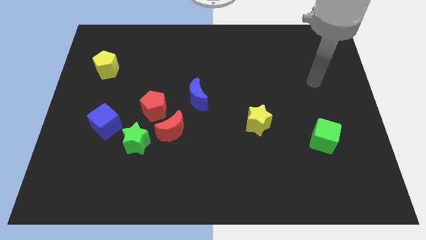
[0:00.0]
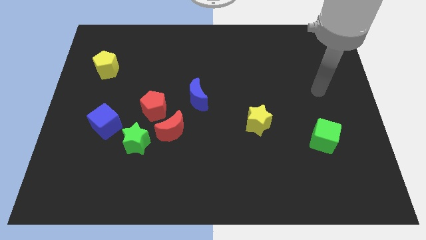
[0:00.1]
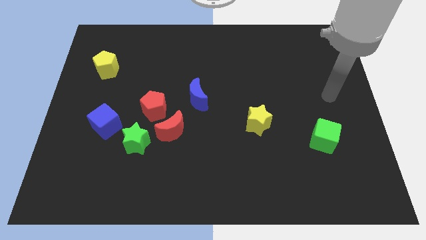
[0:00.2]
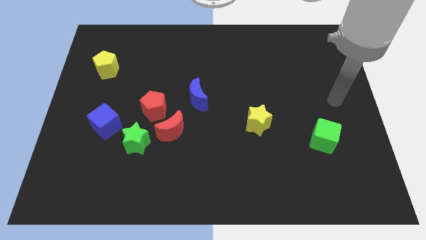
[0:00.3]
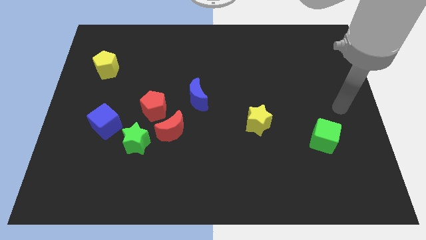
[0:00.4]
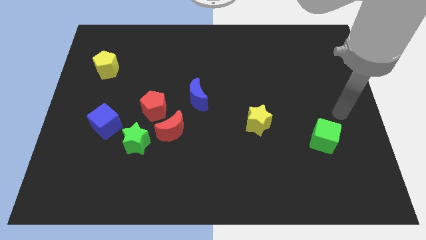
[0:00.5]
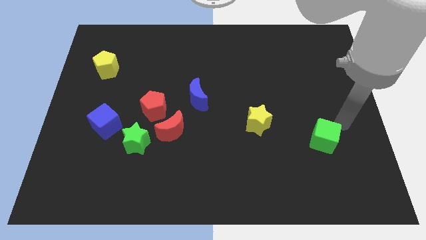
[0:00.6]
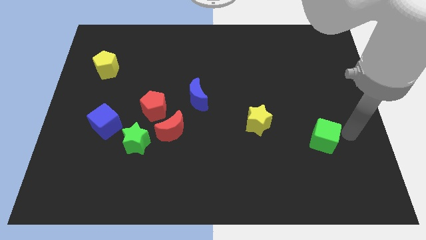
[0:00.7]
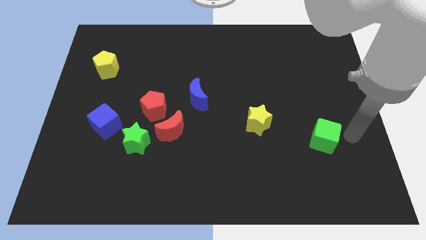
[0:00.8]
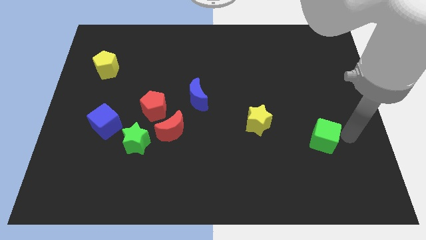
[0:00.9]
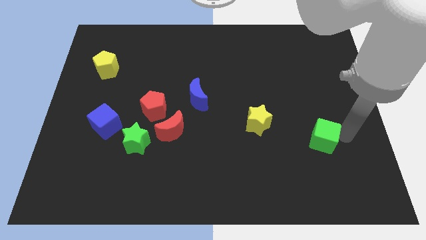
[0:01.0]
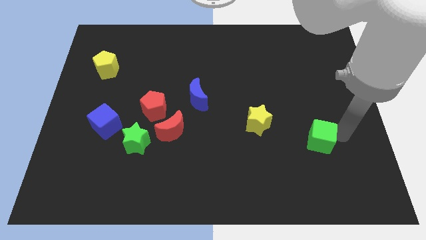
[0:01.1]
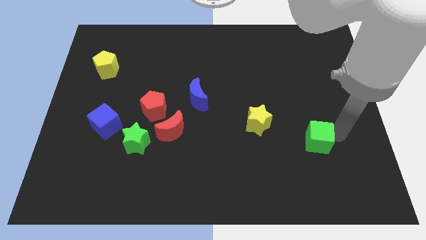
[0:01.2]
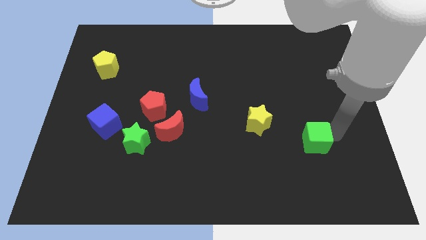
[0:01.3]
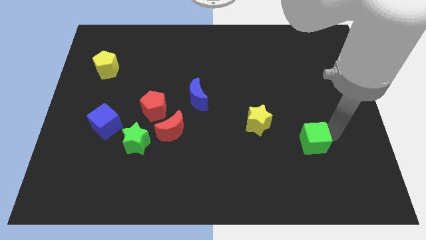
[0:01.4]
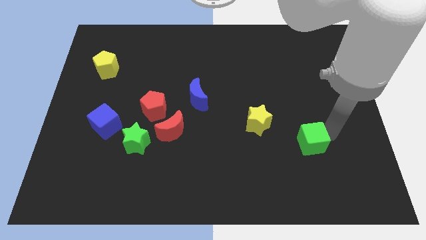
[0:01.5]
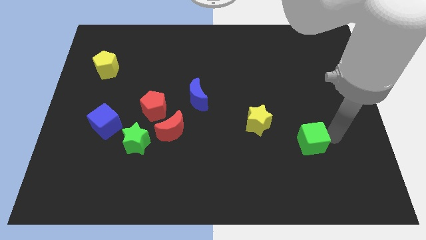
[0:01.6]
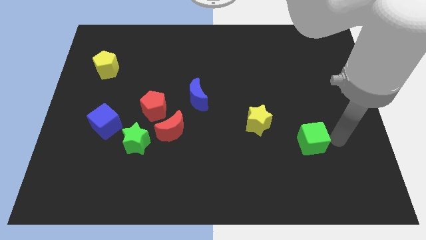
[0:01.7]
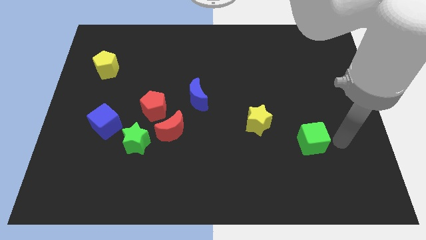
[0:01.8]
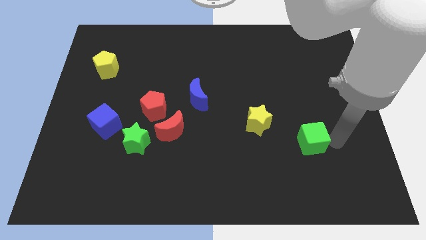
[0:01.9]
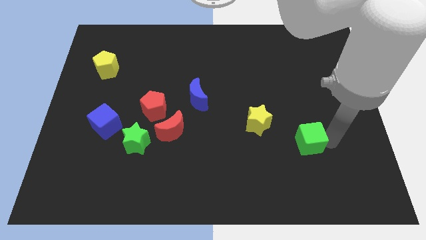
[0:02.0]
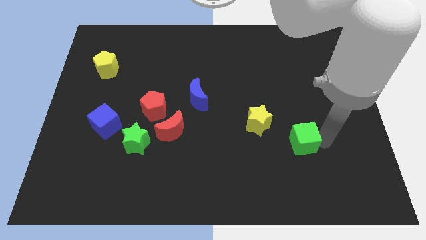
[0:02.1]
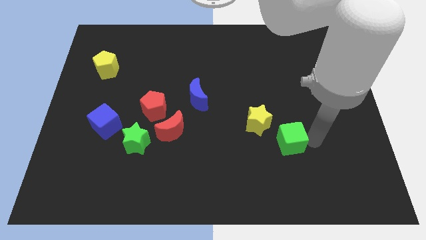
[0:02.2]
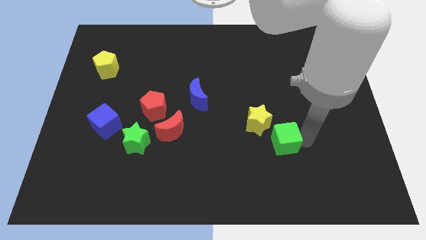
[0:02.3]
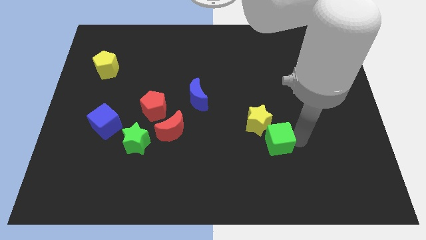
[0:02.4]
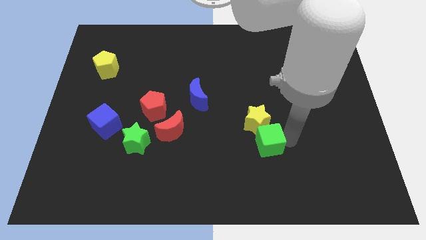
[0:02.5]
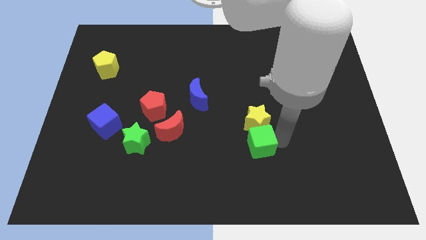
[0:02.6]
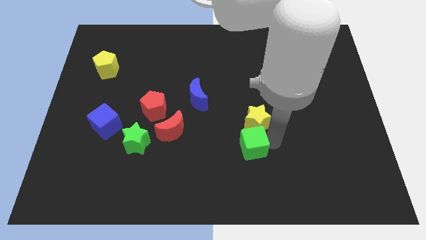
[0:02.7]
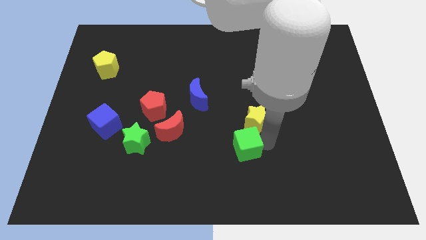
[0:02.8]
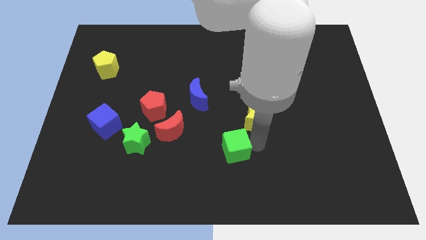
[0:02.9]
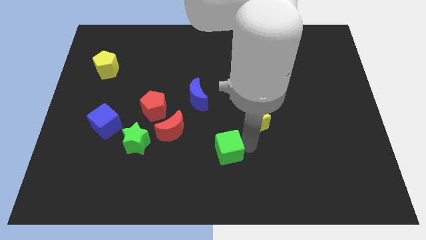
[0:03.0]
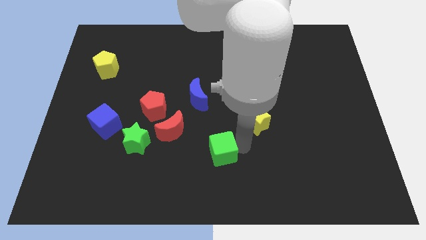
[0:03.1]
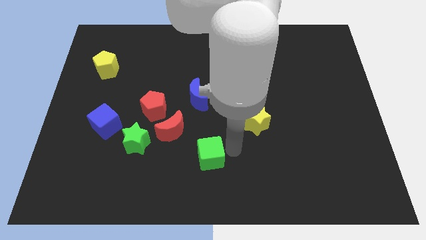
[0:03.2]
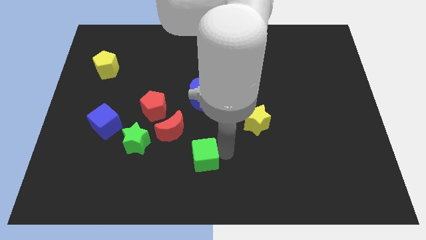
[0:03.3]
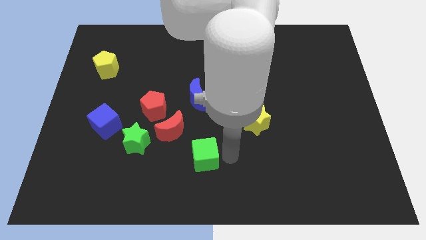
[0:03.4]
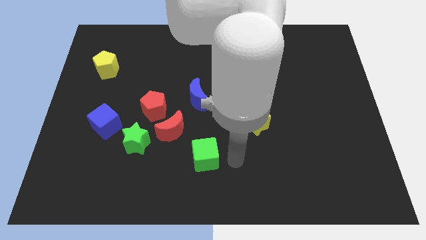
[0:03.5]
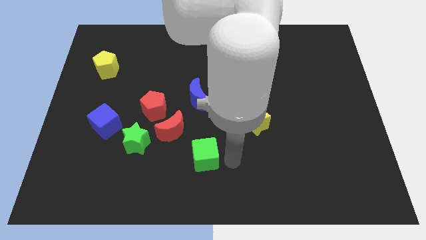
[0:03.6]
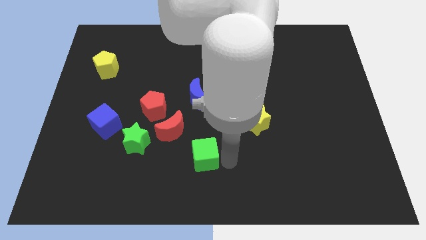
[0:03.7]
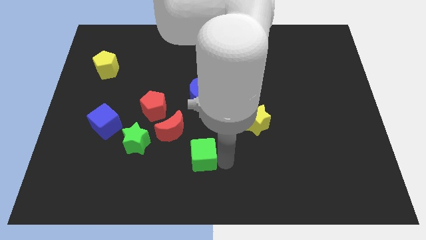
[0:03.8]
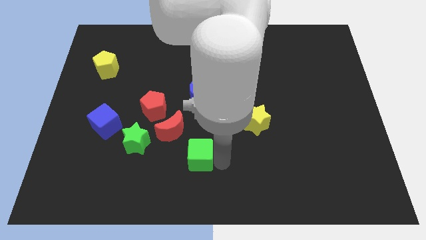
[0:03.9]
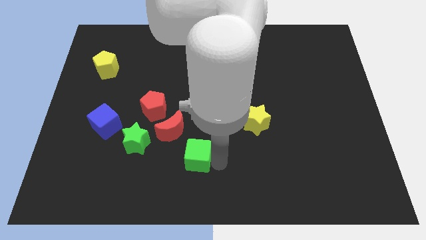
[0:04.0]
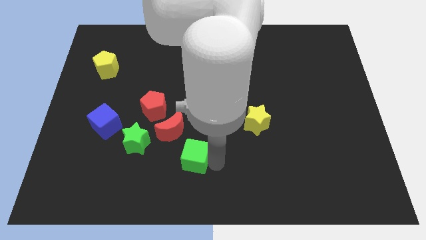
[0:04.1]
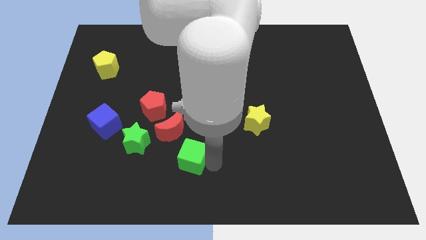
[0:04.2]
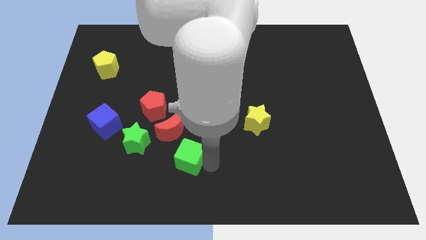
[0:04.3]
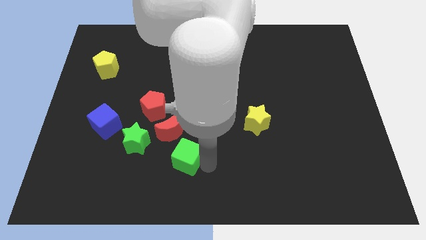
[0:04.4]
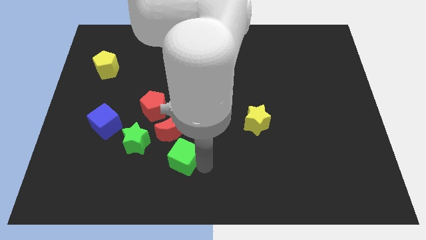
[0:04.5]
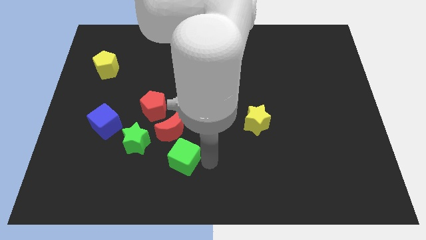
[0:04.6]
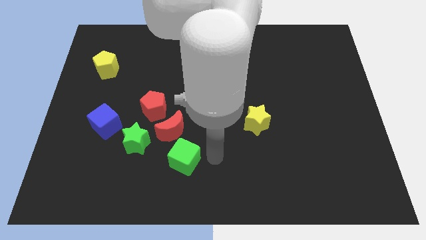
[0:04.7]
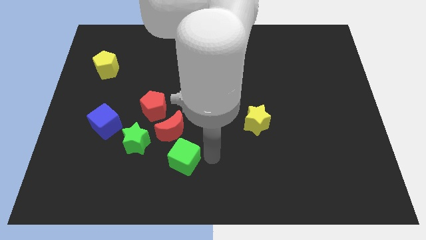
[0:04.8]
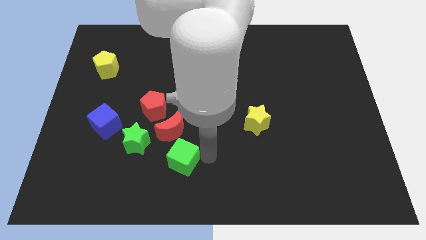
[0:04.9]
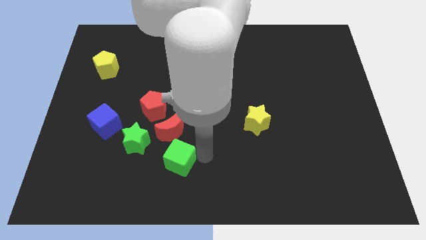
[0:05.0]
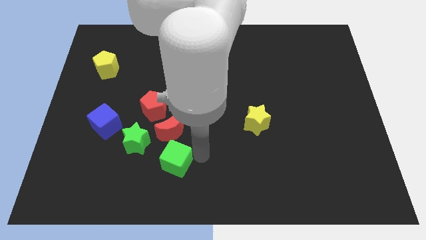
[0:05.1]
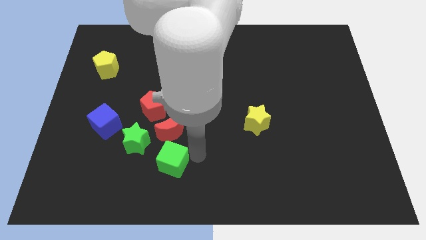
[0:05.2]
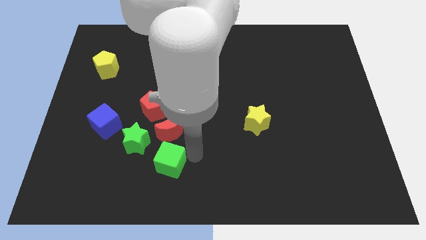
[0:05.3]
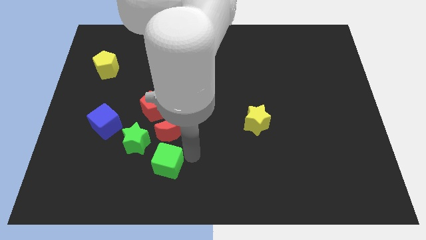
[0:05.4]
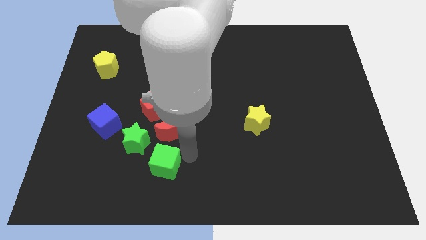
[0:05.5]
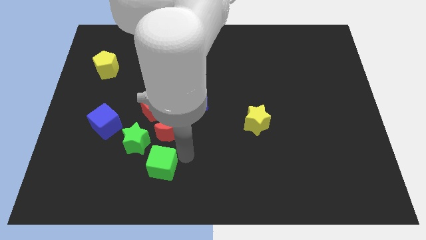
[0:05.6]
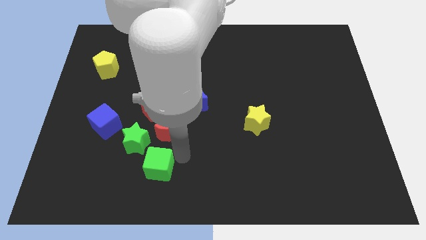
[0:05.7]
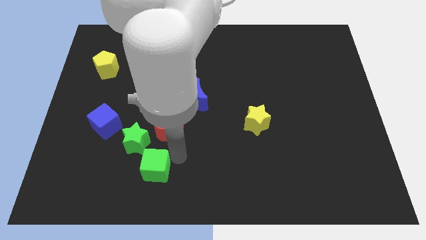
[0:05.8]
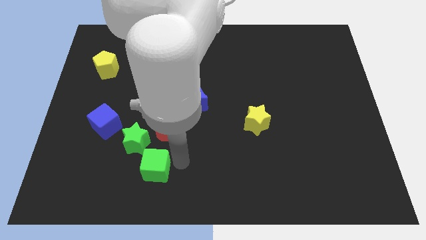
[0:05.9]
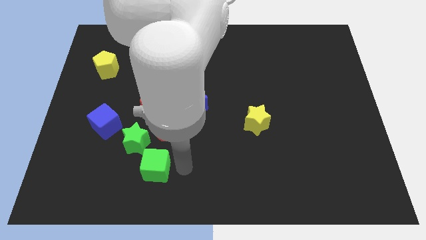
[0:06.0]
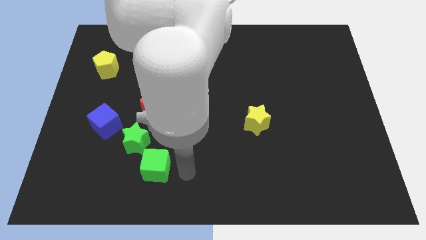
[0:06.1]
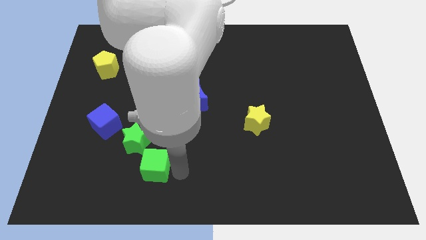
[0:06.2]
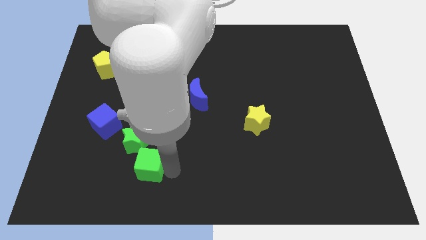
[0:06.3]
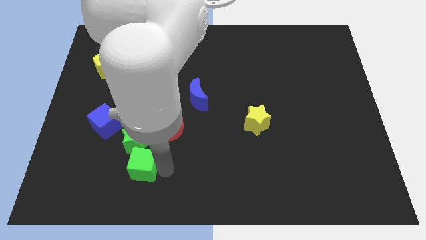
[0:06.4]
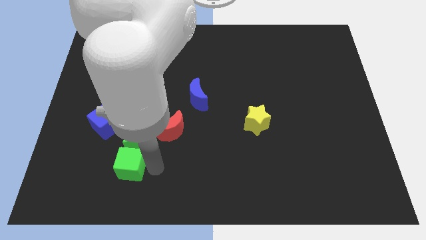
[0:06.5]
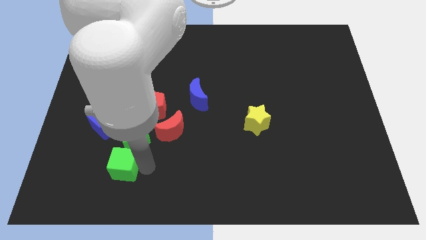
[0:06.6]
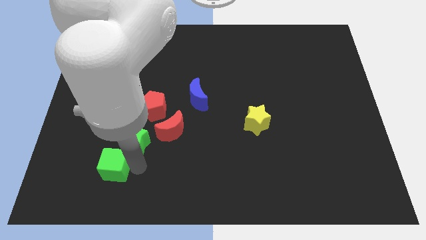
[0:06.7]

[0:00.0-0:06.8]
push the green cube to the bottom side of the blue cube

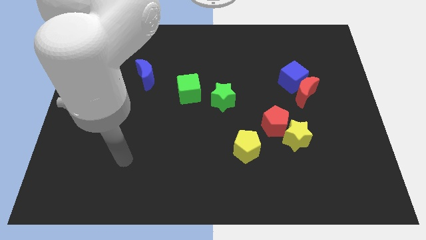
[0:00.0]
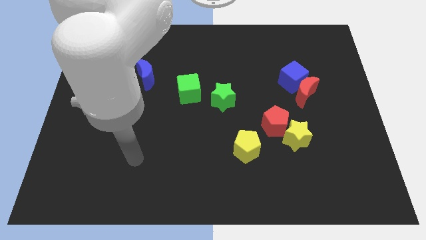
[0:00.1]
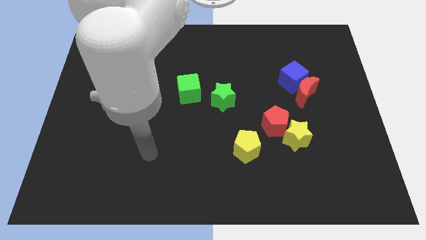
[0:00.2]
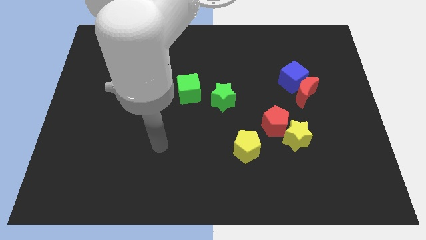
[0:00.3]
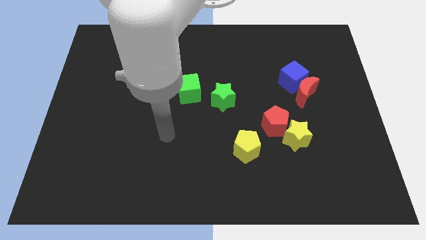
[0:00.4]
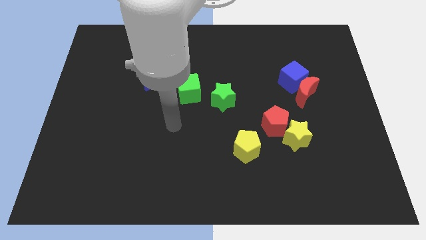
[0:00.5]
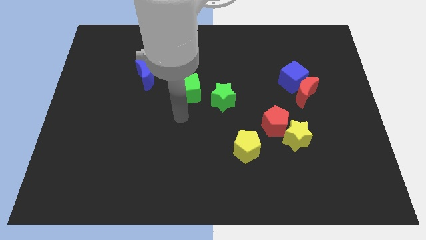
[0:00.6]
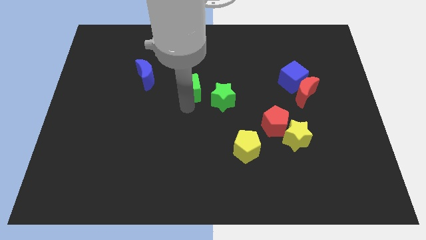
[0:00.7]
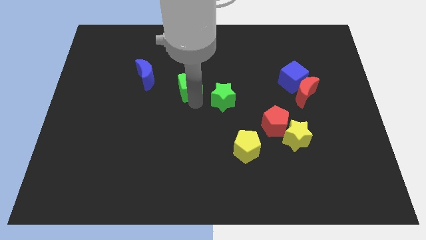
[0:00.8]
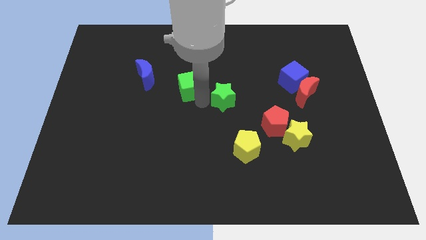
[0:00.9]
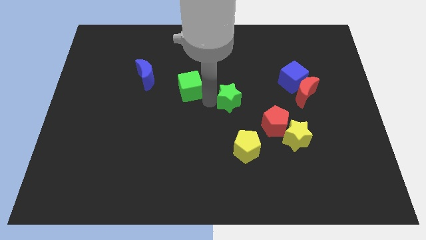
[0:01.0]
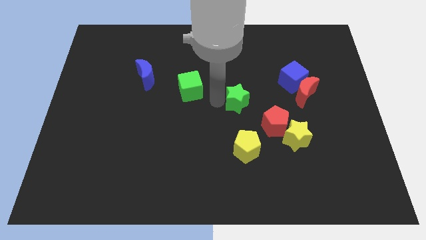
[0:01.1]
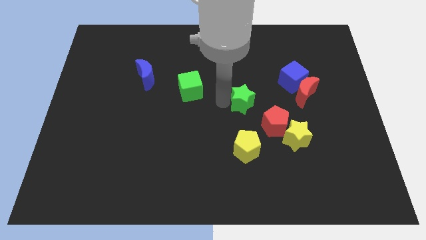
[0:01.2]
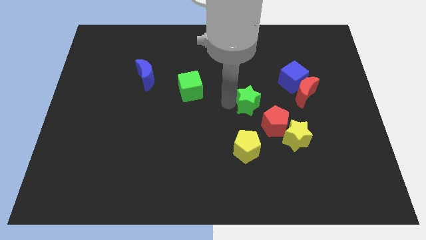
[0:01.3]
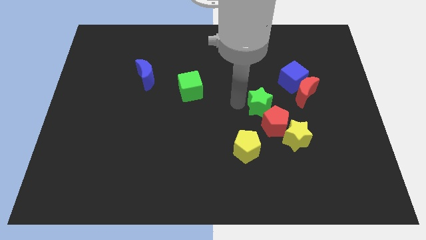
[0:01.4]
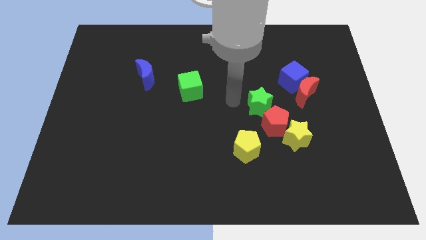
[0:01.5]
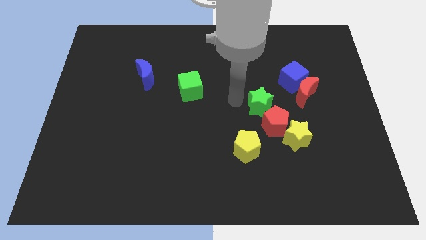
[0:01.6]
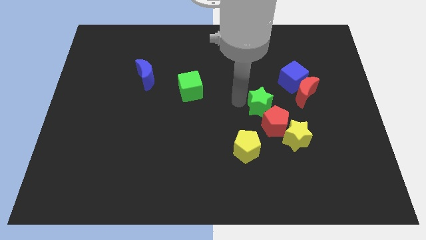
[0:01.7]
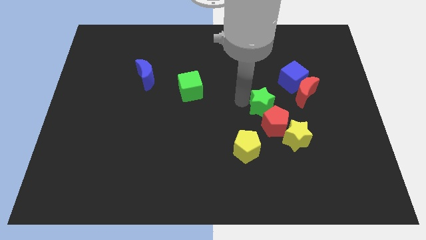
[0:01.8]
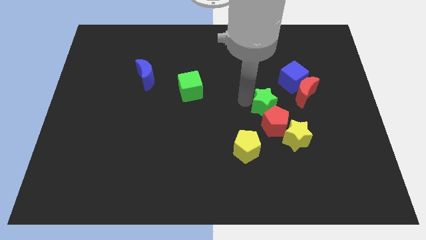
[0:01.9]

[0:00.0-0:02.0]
move the green star to the bottom left side of the red moon
